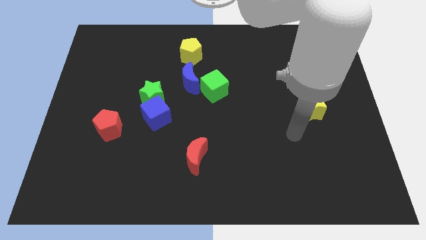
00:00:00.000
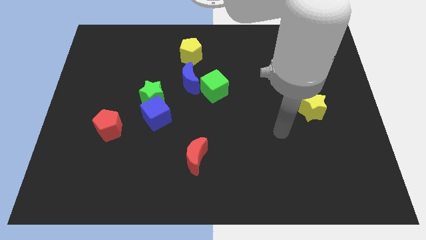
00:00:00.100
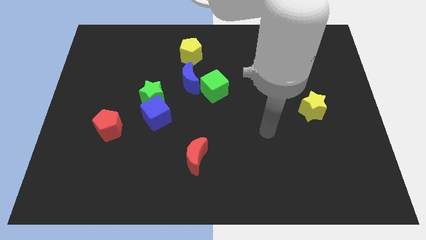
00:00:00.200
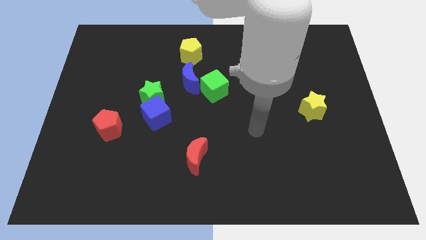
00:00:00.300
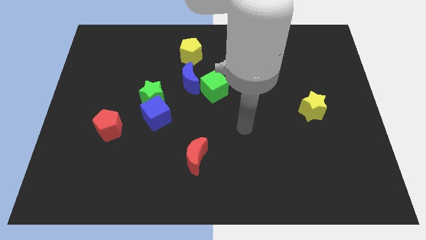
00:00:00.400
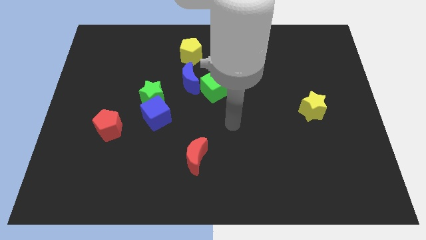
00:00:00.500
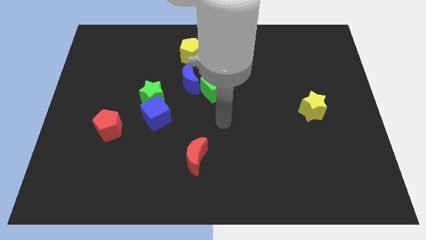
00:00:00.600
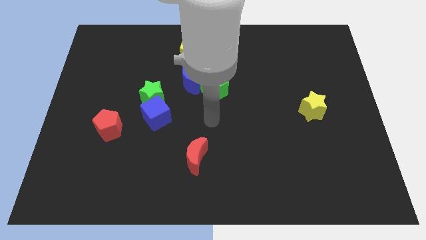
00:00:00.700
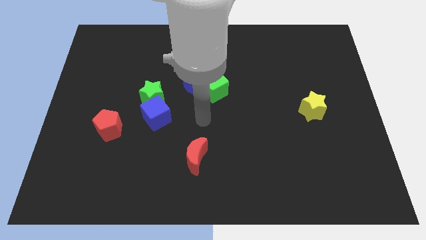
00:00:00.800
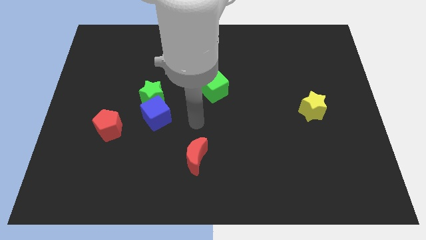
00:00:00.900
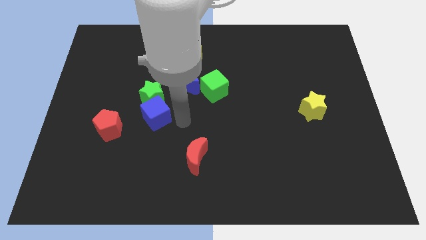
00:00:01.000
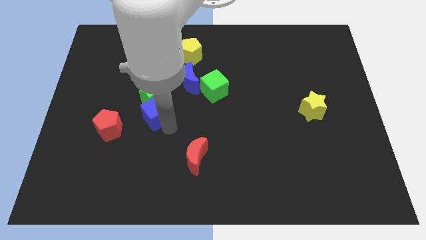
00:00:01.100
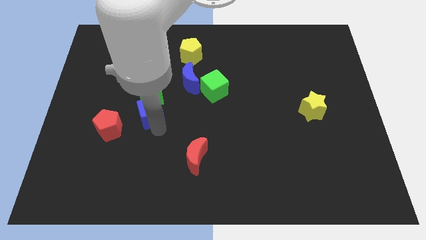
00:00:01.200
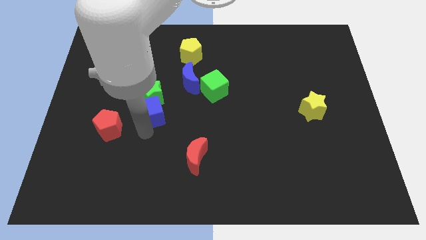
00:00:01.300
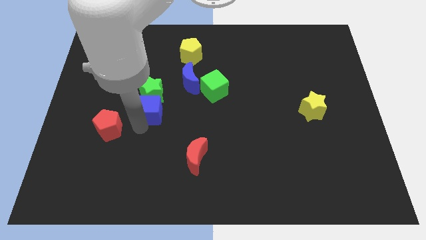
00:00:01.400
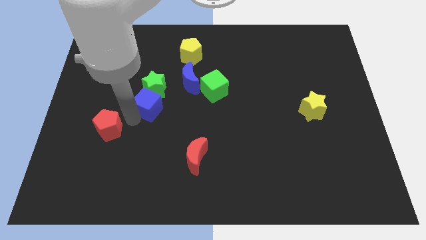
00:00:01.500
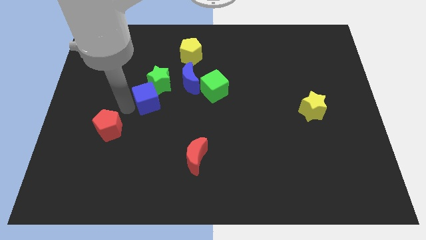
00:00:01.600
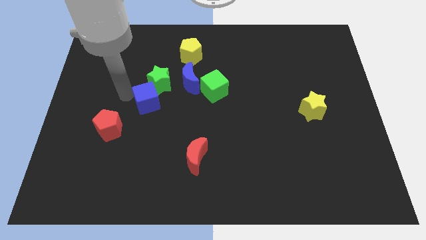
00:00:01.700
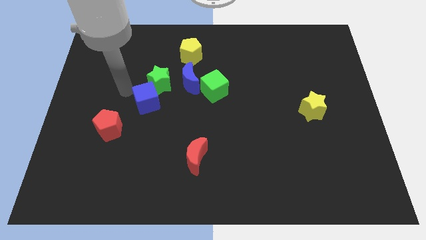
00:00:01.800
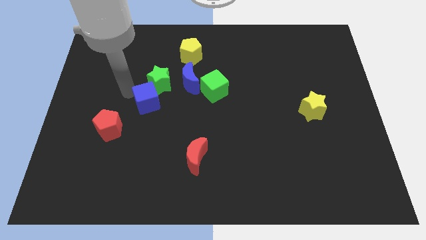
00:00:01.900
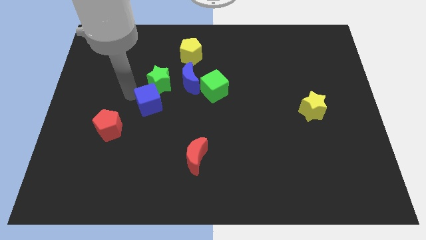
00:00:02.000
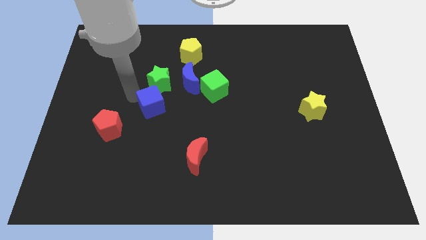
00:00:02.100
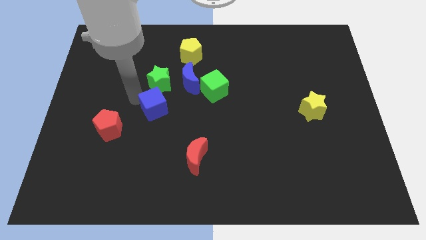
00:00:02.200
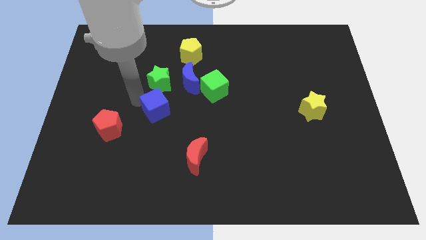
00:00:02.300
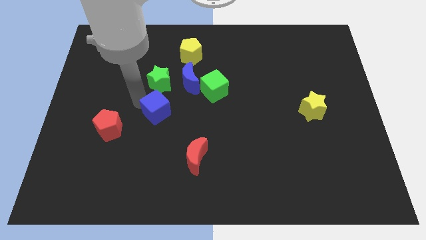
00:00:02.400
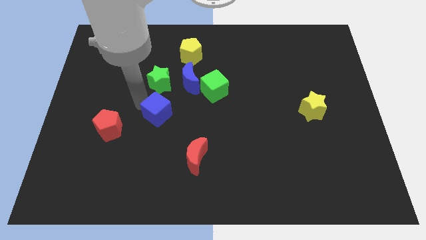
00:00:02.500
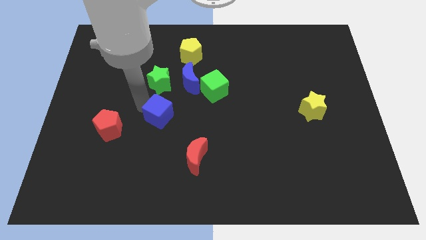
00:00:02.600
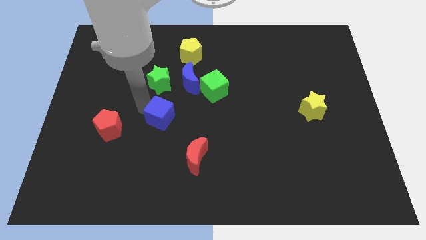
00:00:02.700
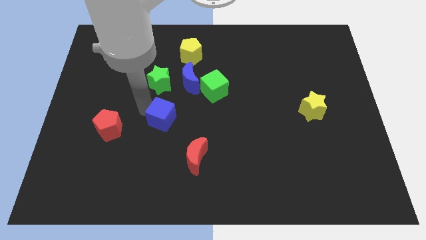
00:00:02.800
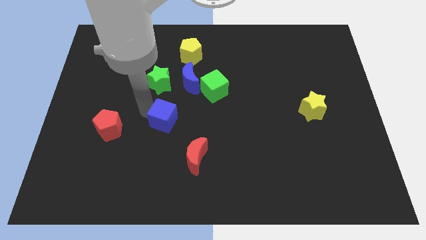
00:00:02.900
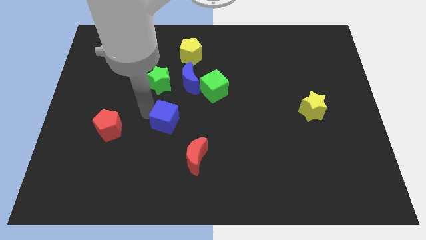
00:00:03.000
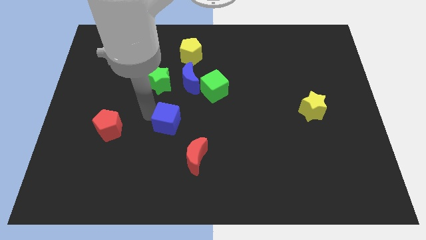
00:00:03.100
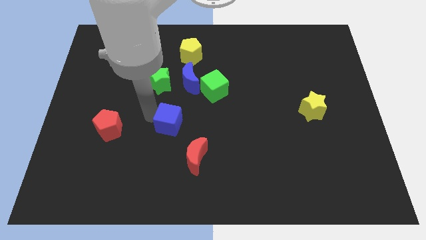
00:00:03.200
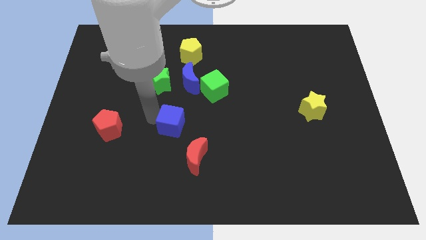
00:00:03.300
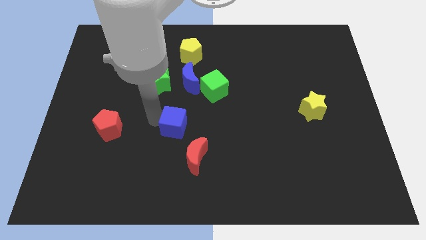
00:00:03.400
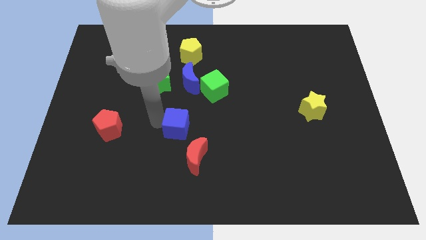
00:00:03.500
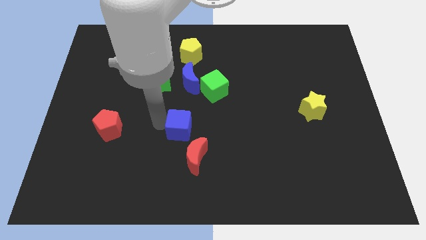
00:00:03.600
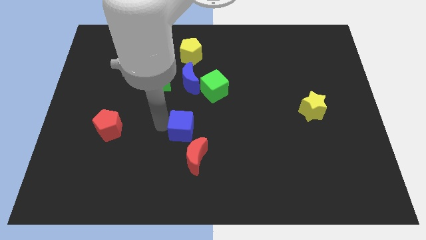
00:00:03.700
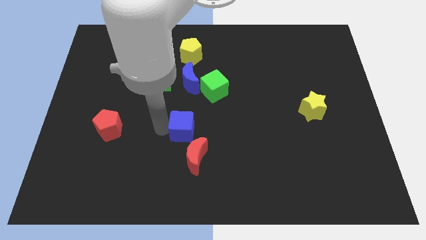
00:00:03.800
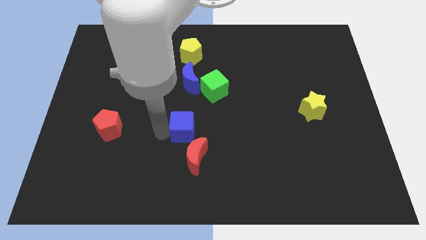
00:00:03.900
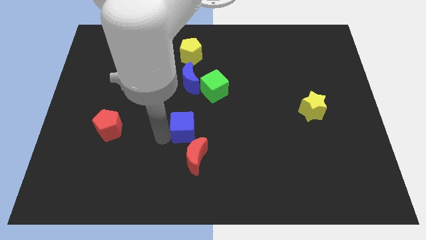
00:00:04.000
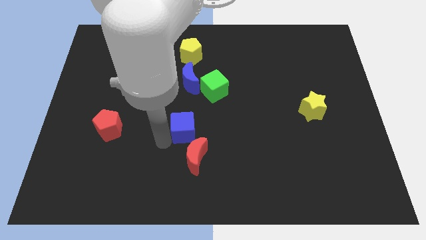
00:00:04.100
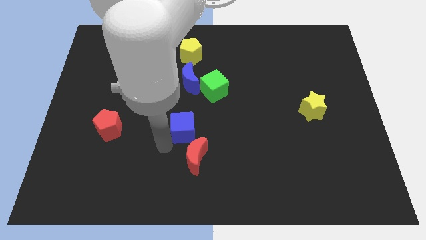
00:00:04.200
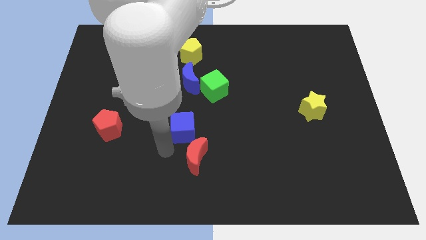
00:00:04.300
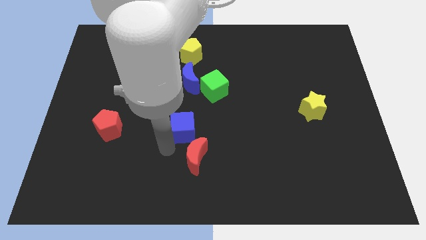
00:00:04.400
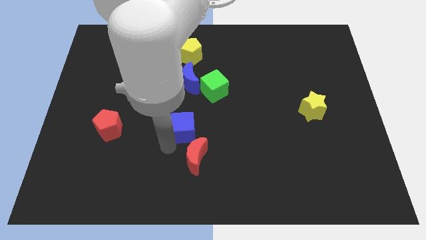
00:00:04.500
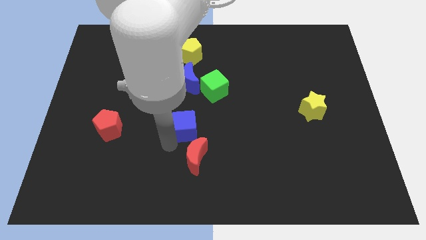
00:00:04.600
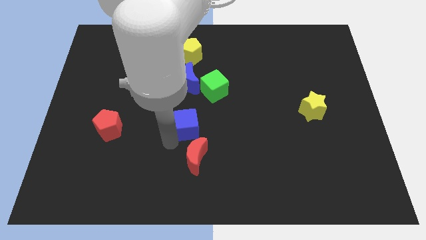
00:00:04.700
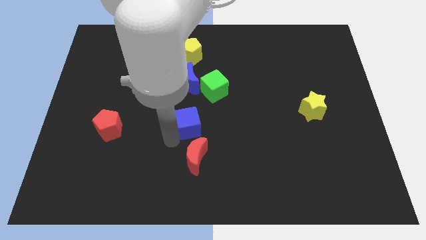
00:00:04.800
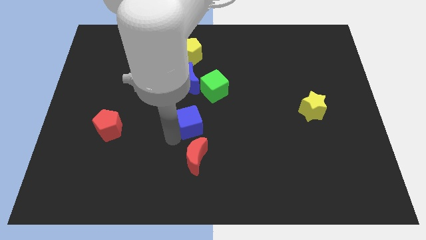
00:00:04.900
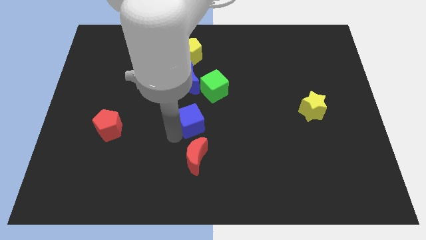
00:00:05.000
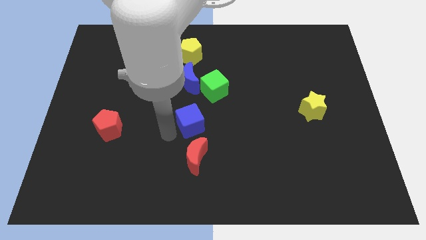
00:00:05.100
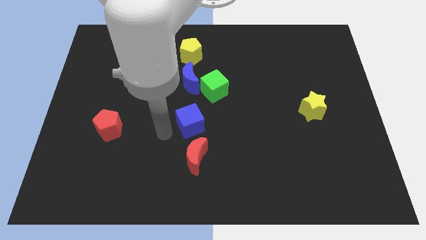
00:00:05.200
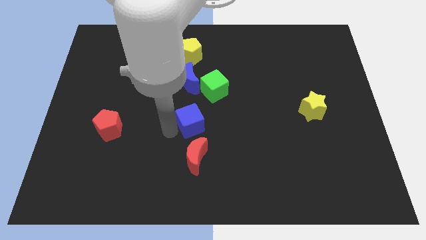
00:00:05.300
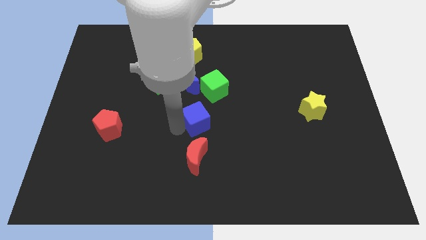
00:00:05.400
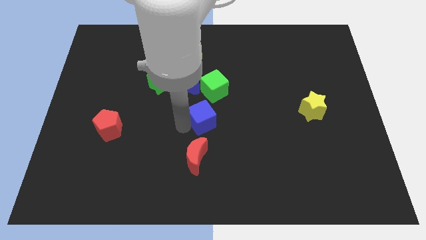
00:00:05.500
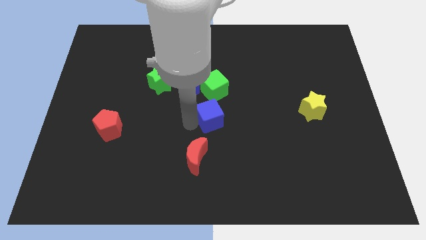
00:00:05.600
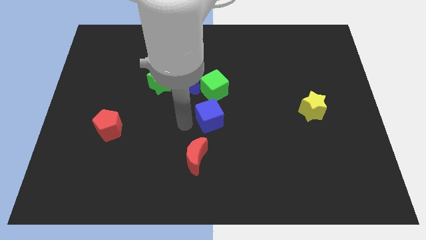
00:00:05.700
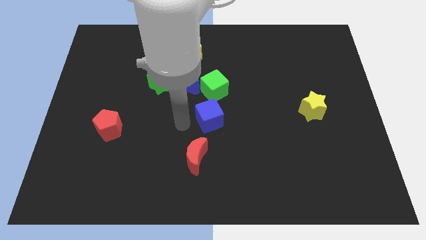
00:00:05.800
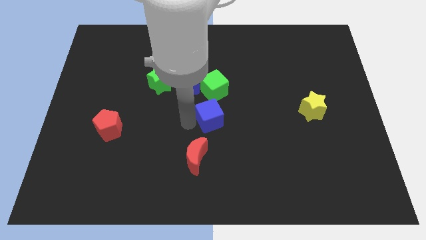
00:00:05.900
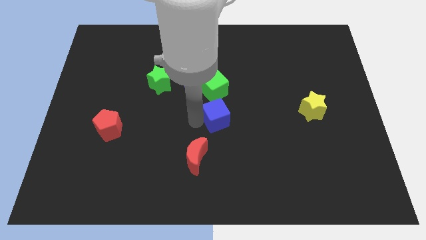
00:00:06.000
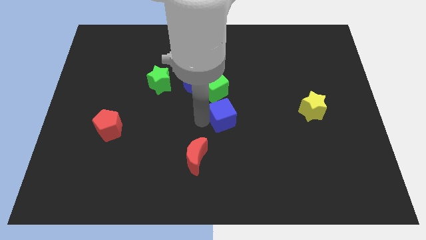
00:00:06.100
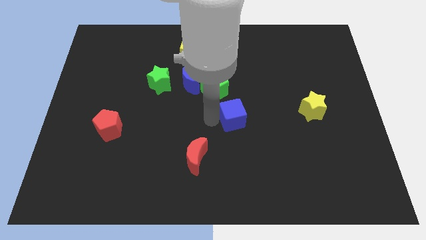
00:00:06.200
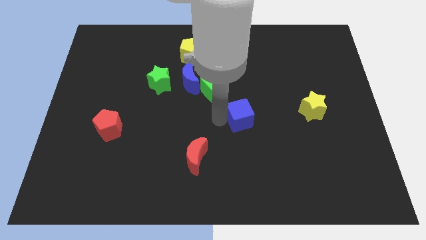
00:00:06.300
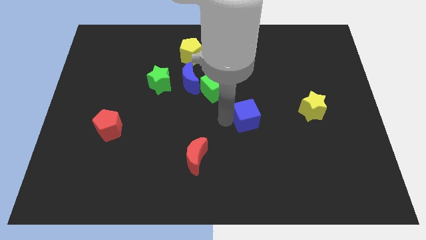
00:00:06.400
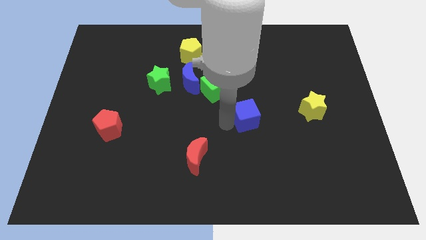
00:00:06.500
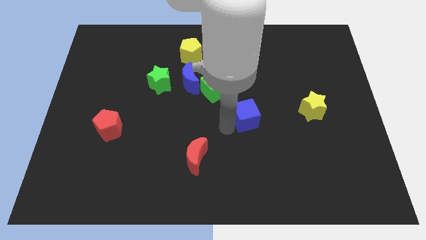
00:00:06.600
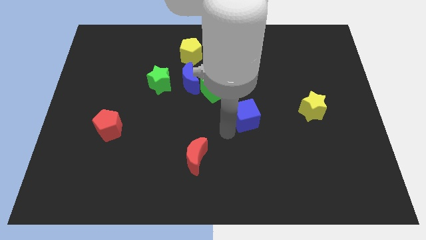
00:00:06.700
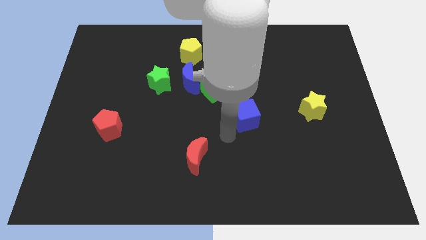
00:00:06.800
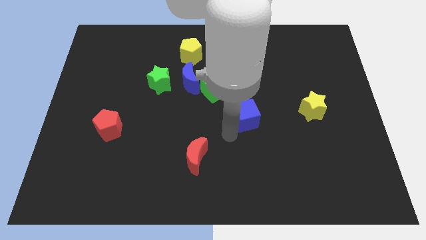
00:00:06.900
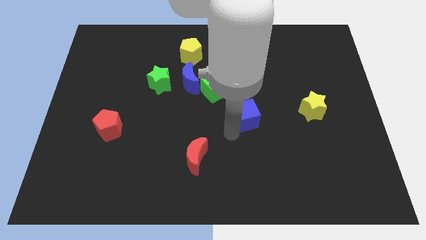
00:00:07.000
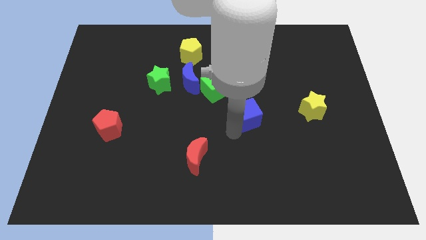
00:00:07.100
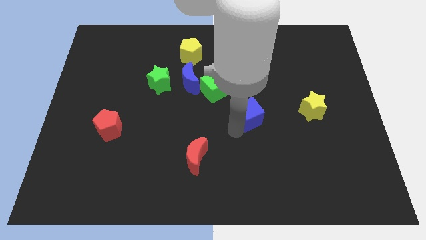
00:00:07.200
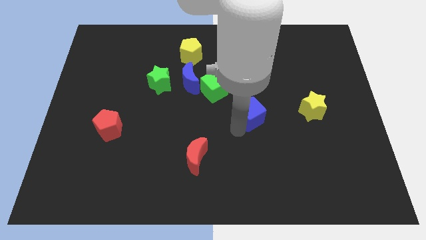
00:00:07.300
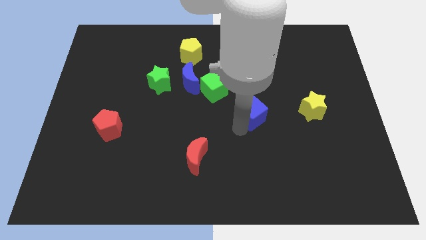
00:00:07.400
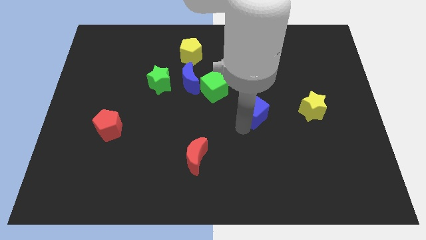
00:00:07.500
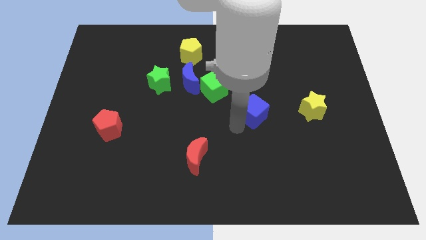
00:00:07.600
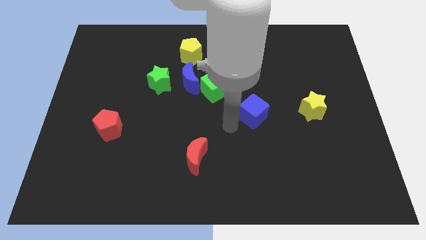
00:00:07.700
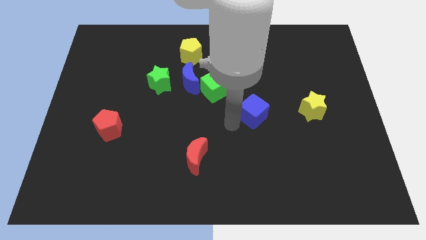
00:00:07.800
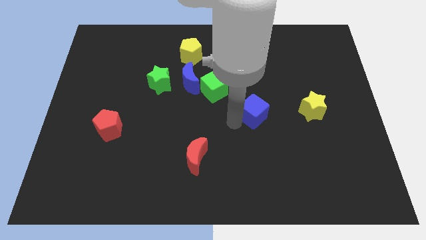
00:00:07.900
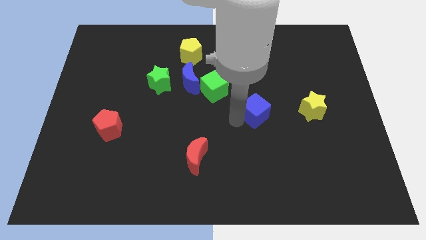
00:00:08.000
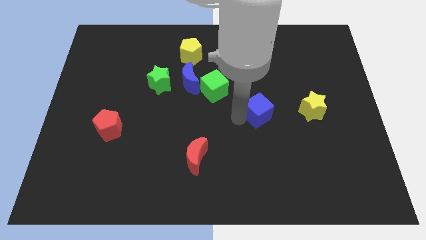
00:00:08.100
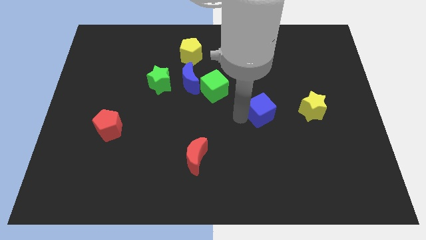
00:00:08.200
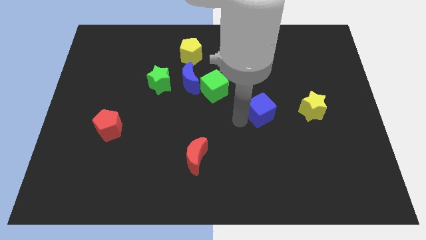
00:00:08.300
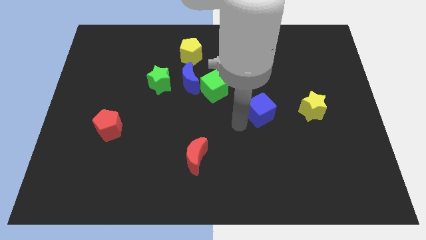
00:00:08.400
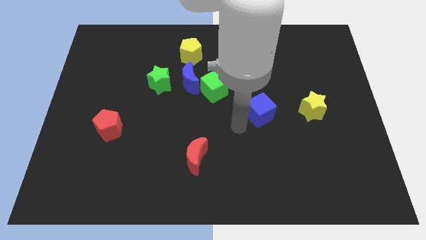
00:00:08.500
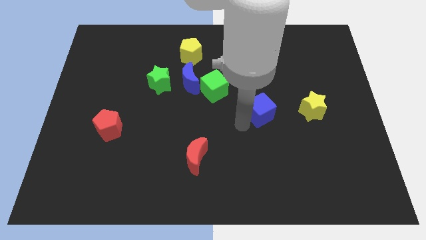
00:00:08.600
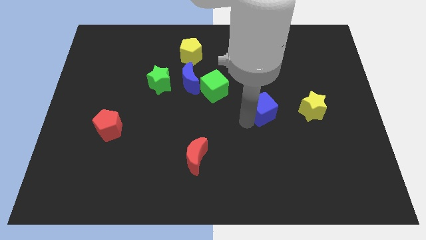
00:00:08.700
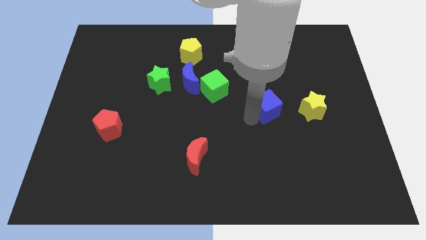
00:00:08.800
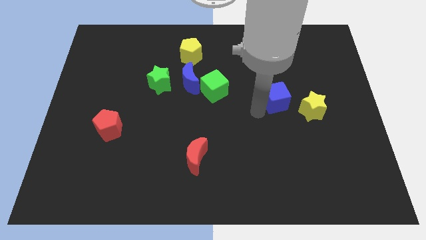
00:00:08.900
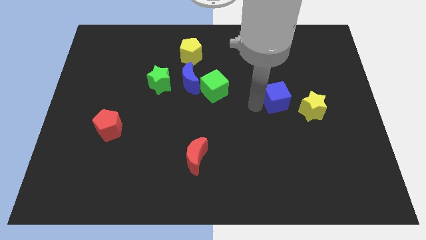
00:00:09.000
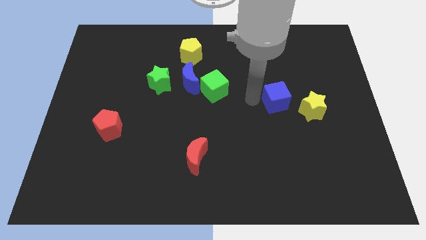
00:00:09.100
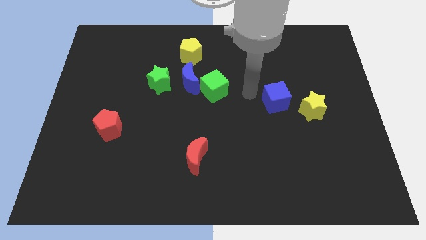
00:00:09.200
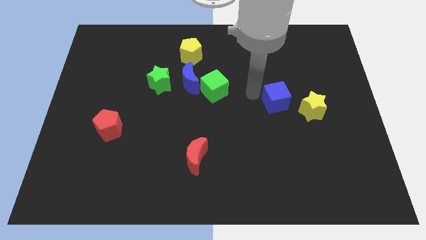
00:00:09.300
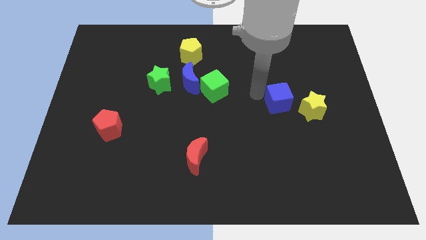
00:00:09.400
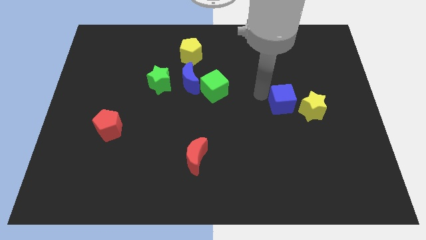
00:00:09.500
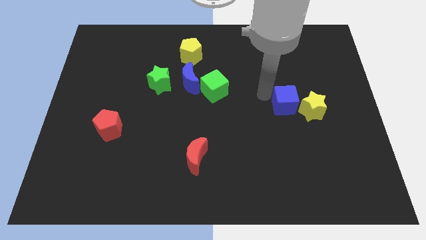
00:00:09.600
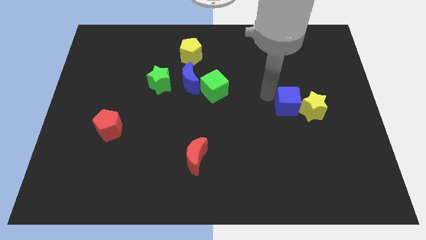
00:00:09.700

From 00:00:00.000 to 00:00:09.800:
put the blue cube towards the yellow star
